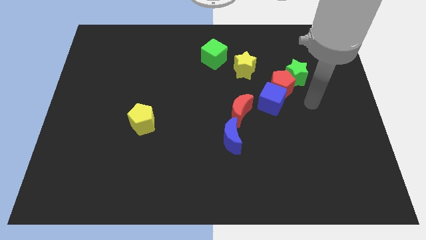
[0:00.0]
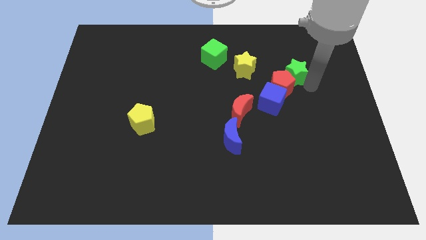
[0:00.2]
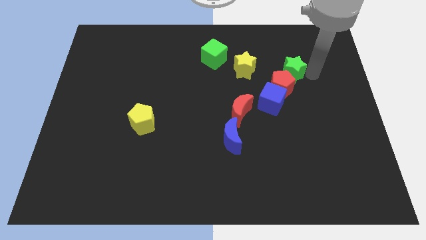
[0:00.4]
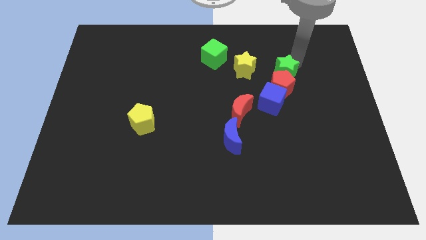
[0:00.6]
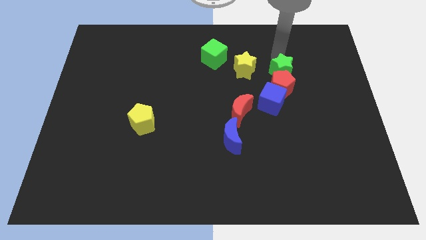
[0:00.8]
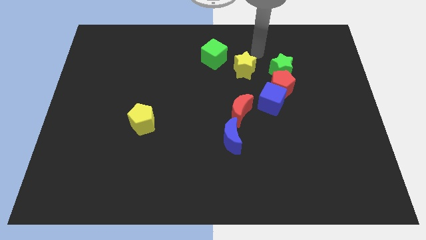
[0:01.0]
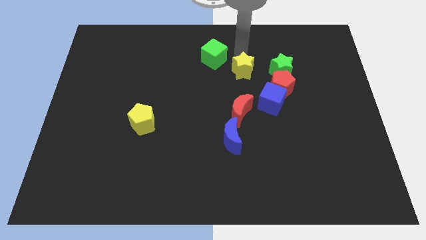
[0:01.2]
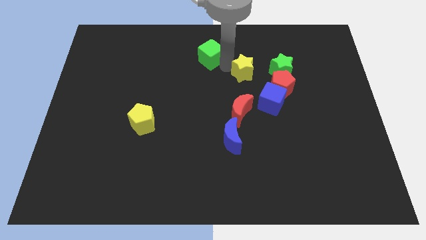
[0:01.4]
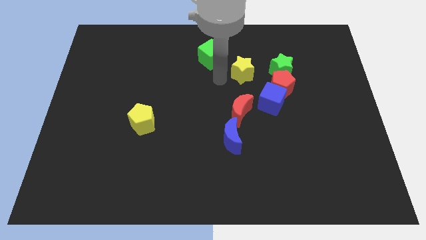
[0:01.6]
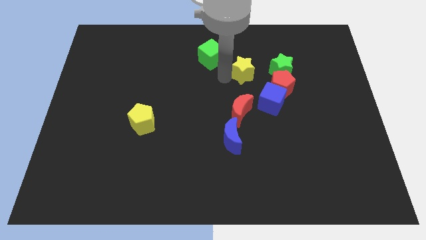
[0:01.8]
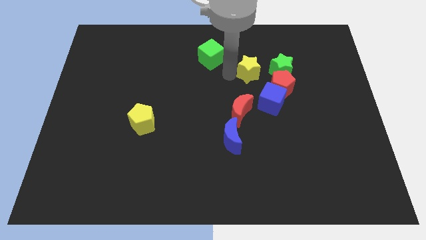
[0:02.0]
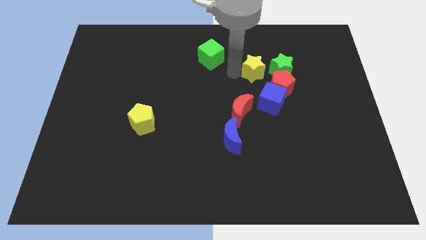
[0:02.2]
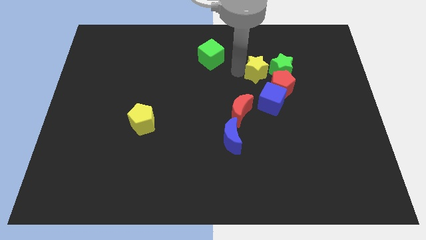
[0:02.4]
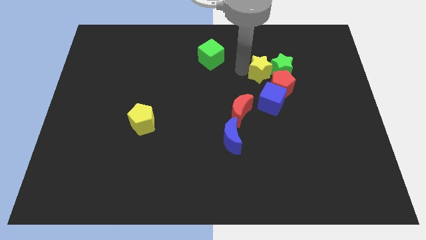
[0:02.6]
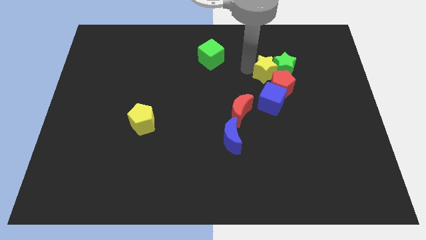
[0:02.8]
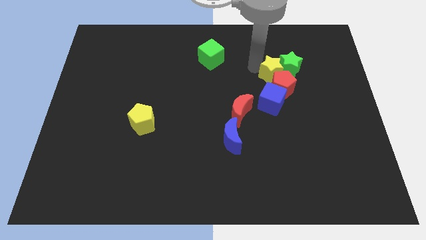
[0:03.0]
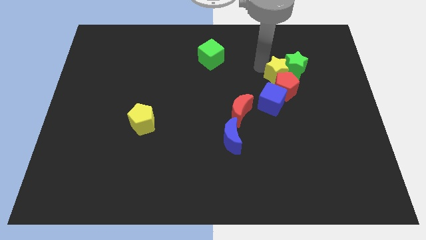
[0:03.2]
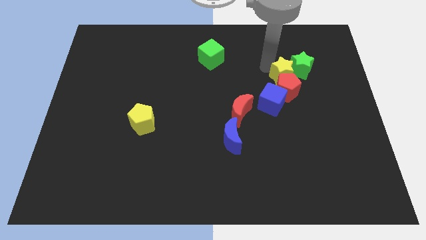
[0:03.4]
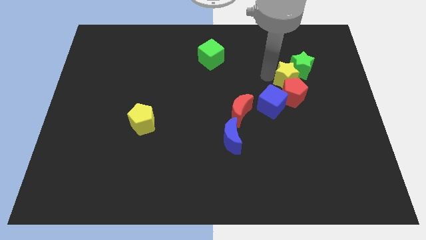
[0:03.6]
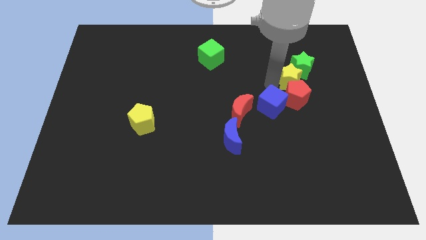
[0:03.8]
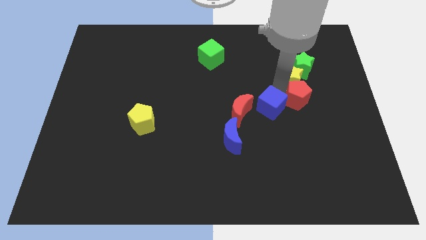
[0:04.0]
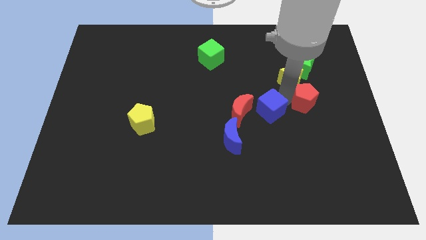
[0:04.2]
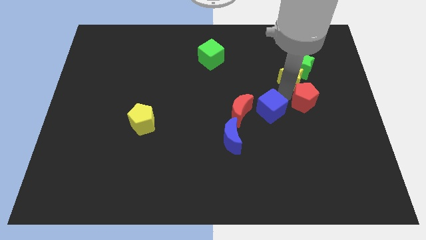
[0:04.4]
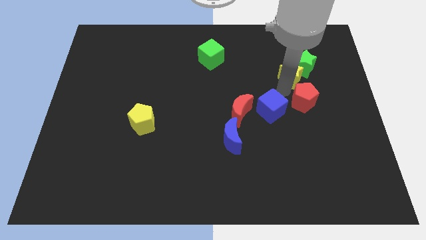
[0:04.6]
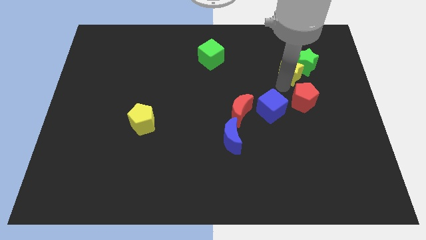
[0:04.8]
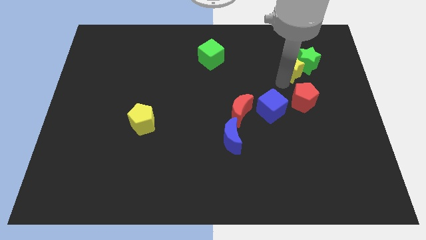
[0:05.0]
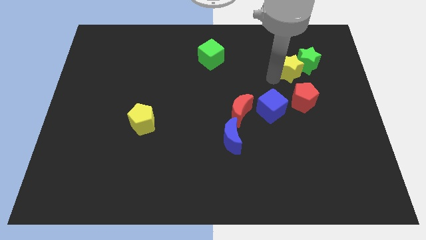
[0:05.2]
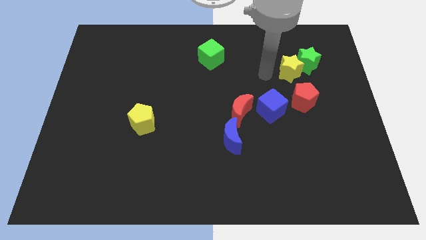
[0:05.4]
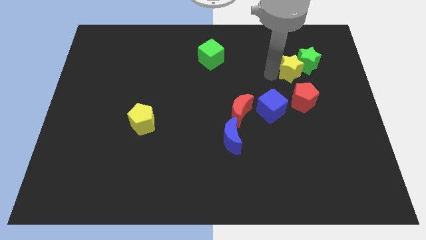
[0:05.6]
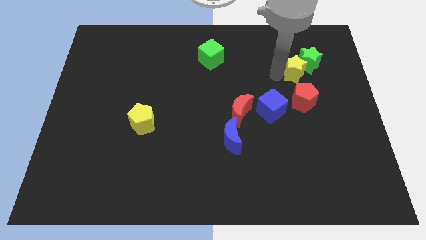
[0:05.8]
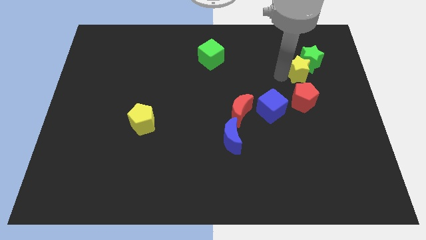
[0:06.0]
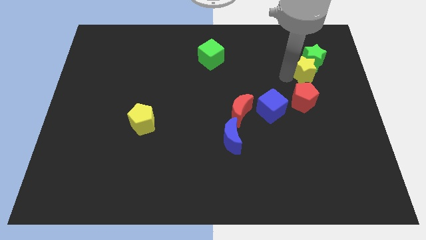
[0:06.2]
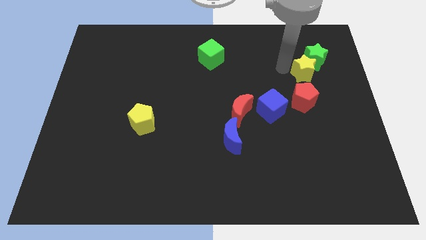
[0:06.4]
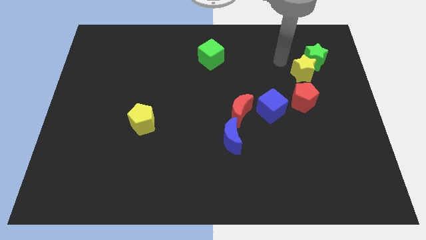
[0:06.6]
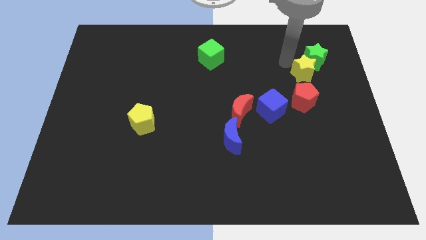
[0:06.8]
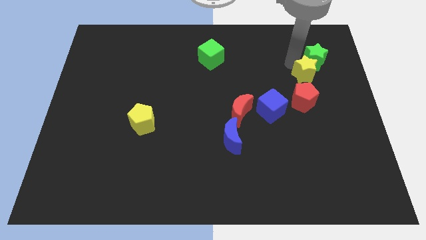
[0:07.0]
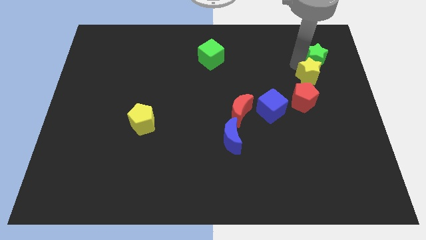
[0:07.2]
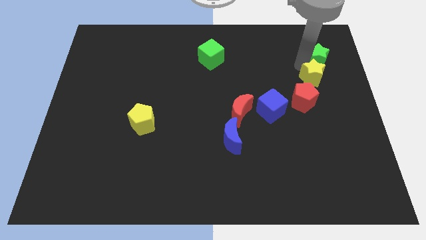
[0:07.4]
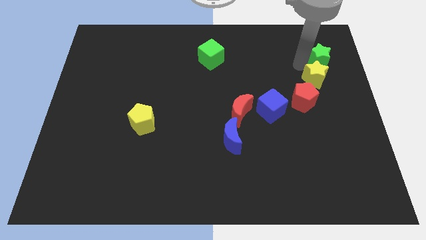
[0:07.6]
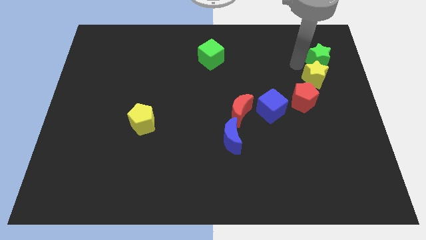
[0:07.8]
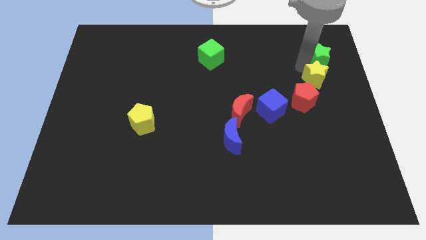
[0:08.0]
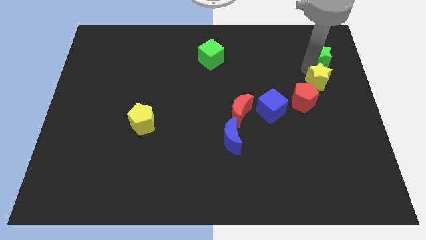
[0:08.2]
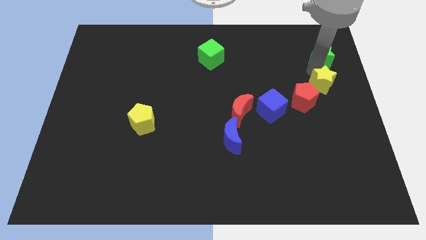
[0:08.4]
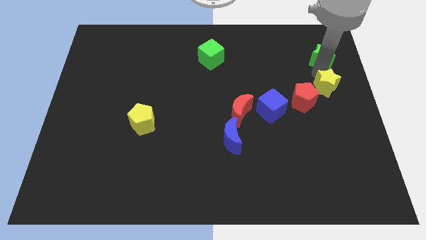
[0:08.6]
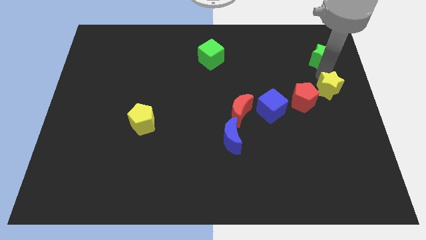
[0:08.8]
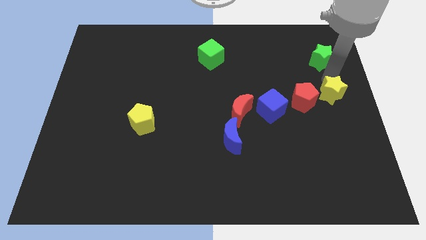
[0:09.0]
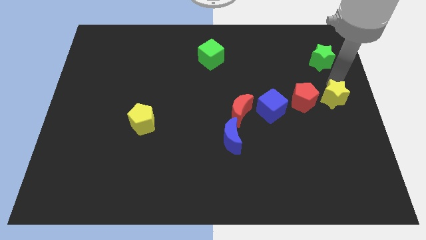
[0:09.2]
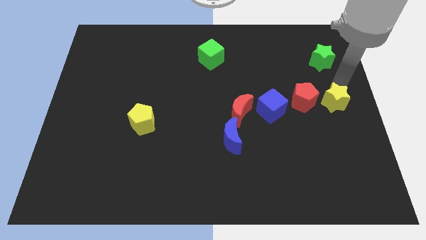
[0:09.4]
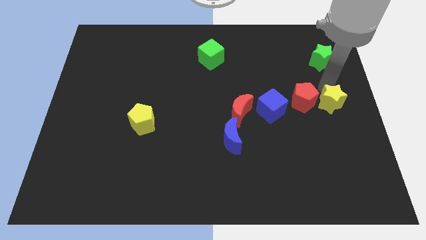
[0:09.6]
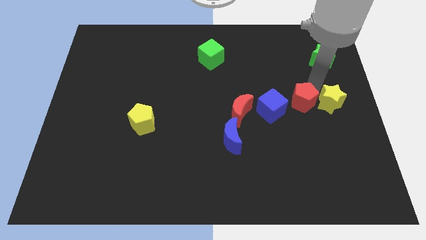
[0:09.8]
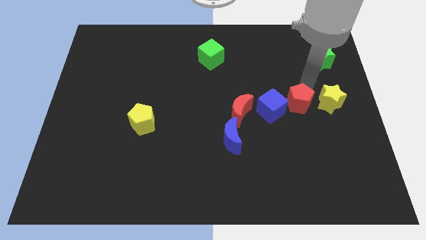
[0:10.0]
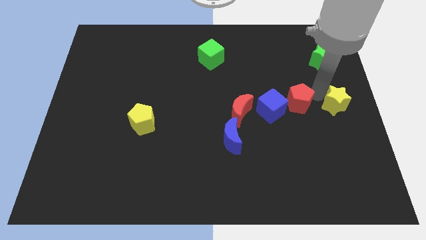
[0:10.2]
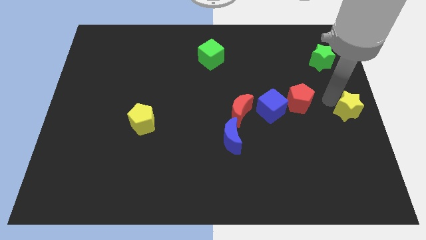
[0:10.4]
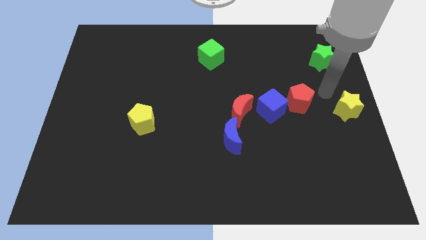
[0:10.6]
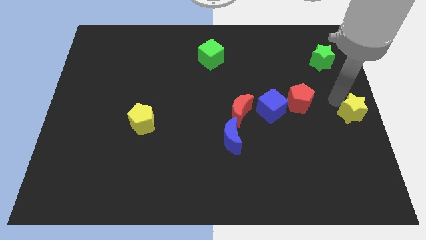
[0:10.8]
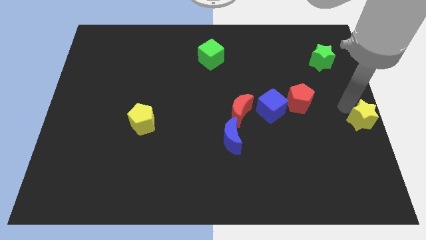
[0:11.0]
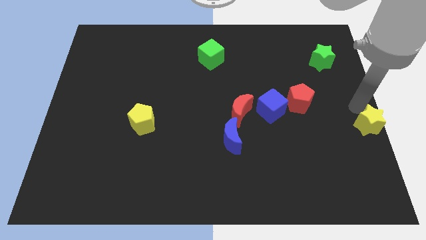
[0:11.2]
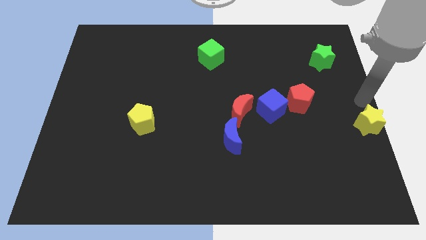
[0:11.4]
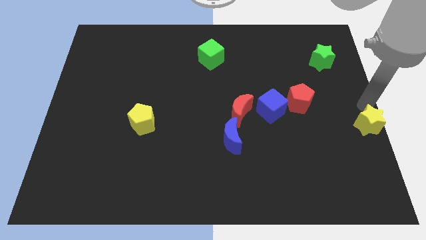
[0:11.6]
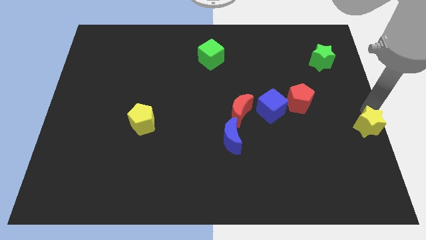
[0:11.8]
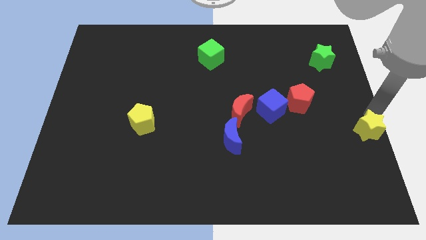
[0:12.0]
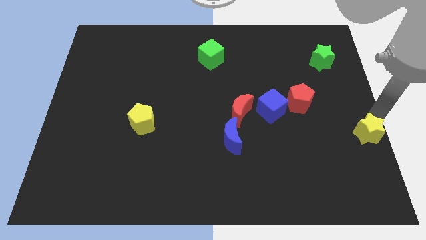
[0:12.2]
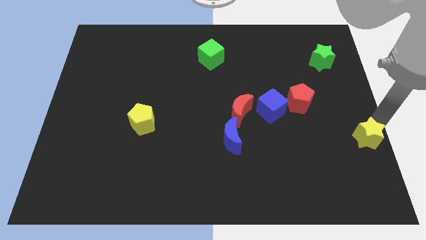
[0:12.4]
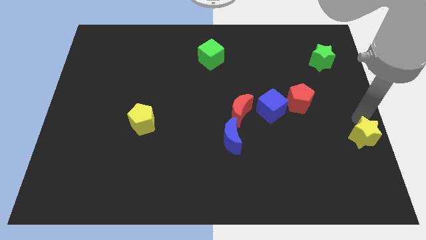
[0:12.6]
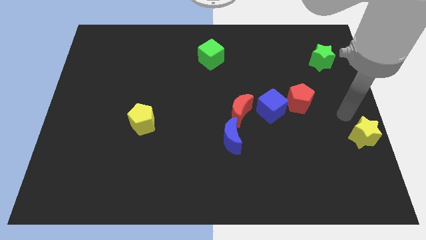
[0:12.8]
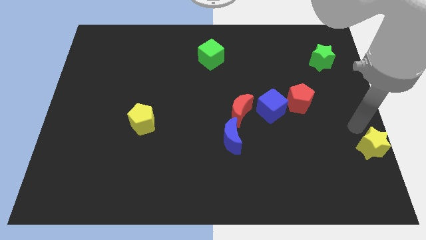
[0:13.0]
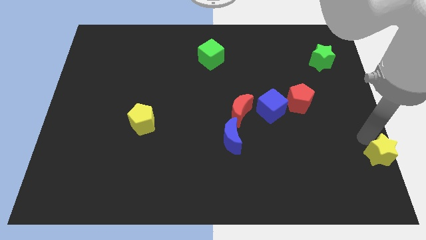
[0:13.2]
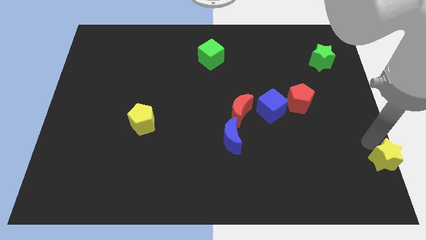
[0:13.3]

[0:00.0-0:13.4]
move the yellow star to the bottom right
